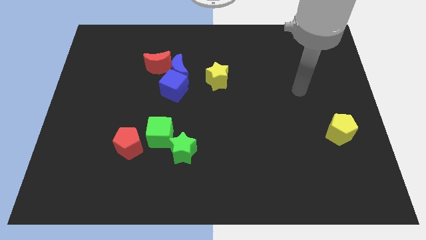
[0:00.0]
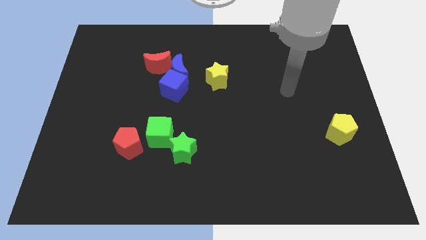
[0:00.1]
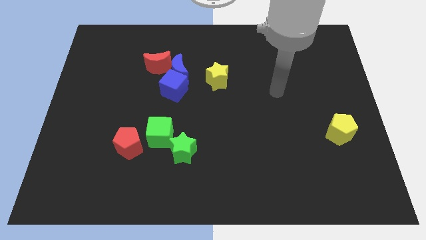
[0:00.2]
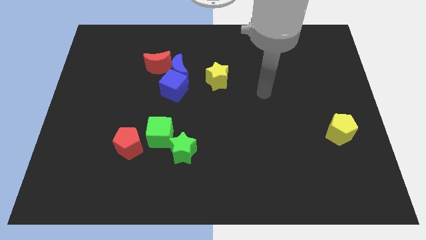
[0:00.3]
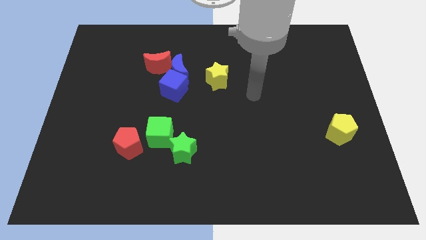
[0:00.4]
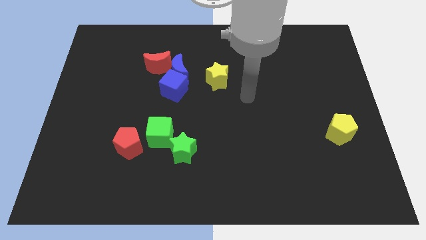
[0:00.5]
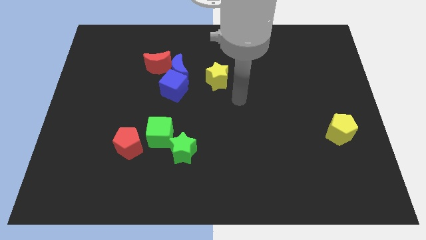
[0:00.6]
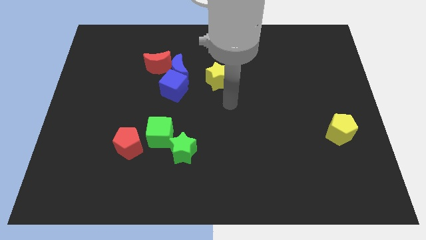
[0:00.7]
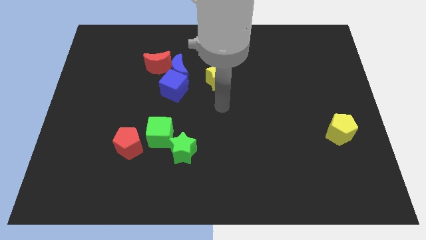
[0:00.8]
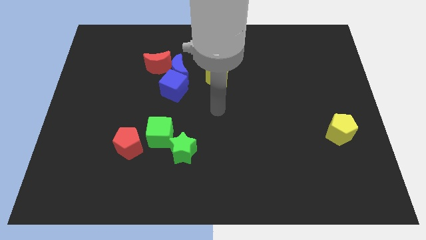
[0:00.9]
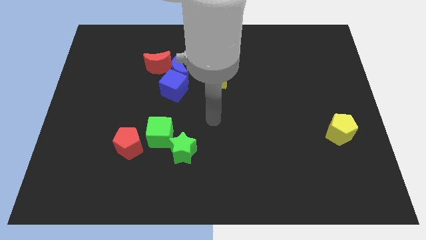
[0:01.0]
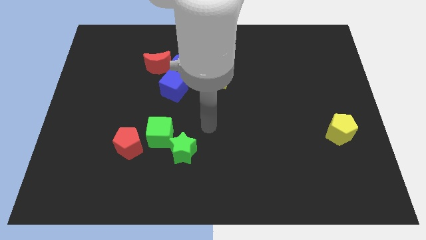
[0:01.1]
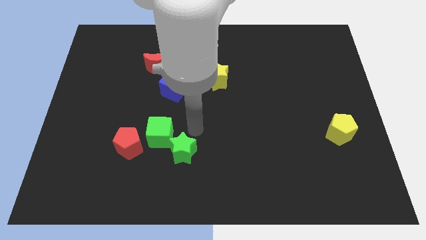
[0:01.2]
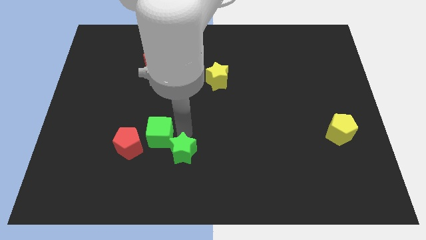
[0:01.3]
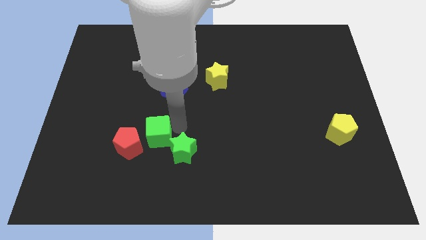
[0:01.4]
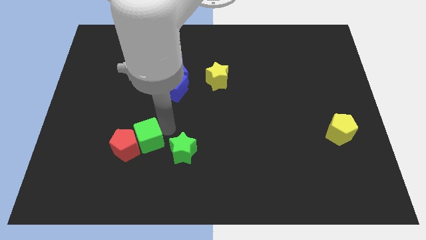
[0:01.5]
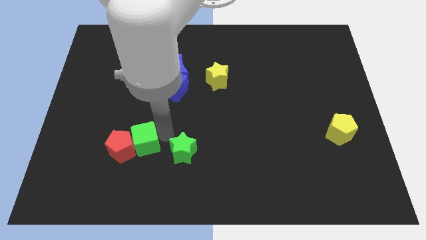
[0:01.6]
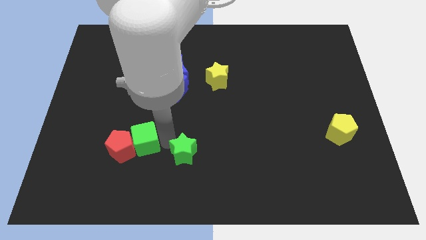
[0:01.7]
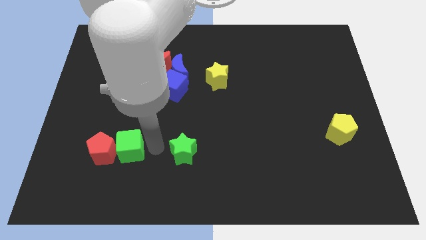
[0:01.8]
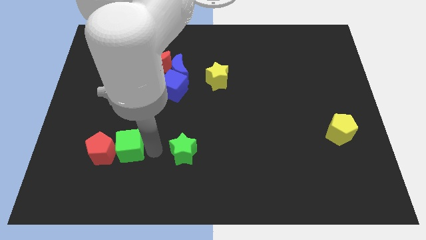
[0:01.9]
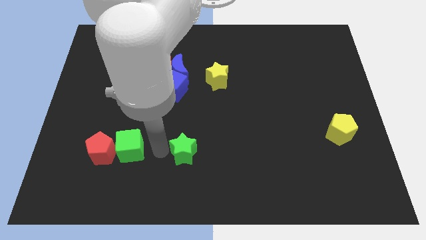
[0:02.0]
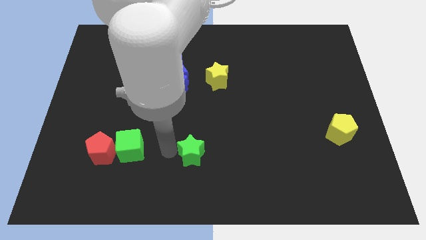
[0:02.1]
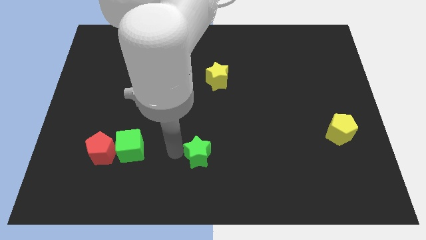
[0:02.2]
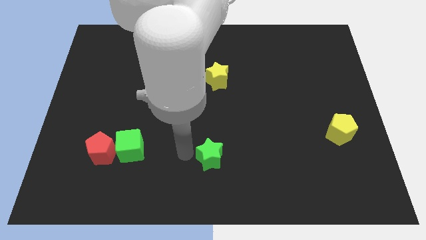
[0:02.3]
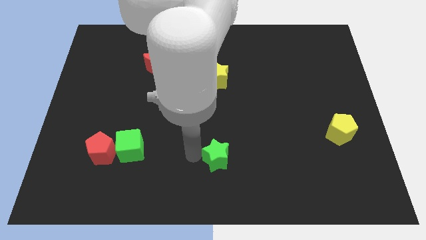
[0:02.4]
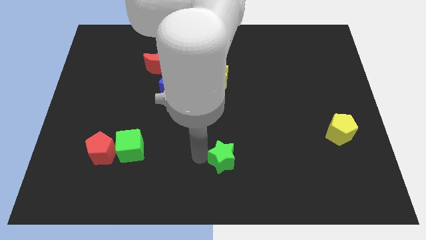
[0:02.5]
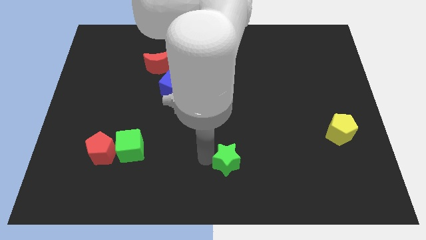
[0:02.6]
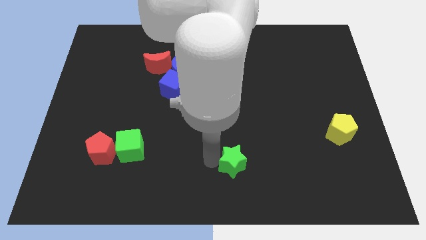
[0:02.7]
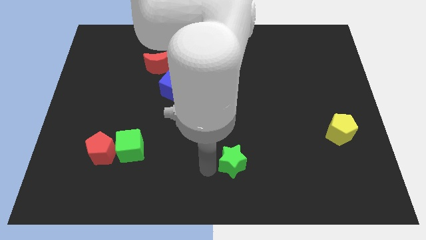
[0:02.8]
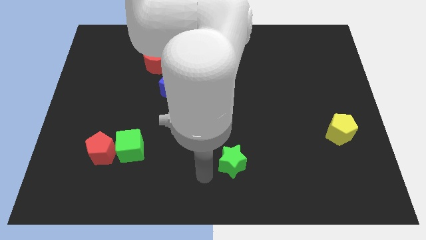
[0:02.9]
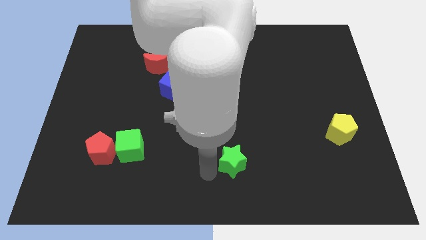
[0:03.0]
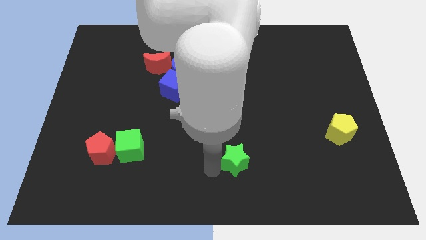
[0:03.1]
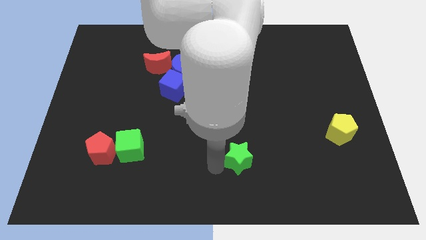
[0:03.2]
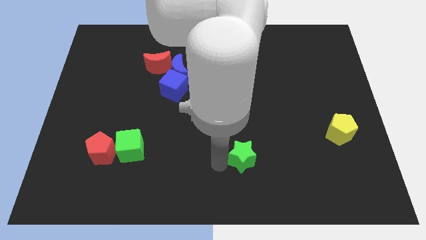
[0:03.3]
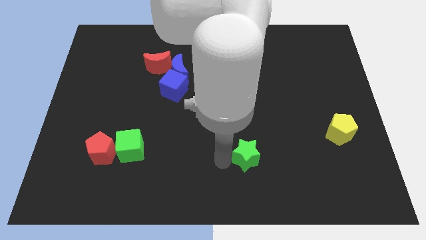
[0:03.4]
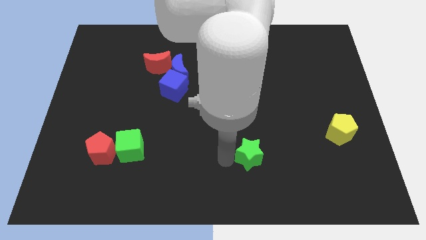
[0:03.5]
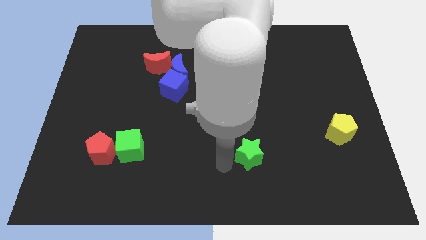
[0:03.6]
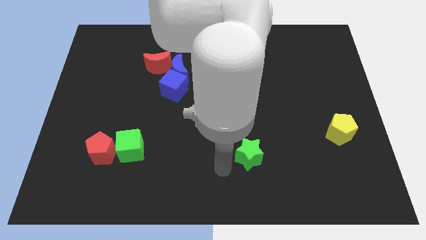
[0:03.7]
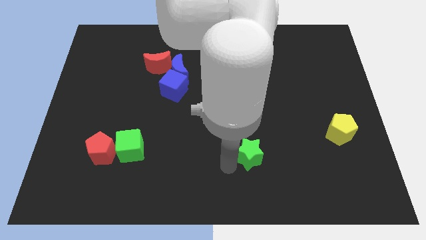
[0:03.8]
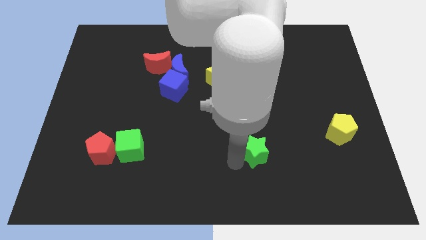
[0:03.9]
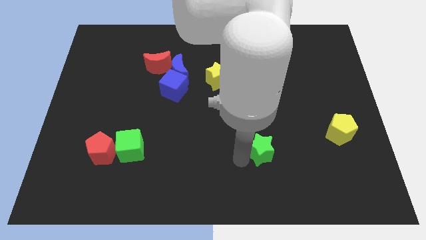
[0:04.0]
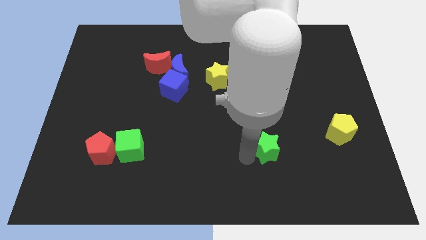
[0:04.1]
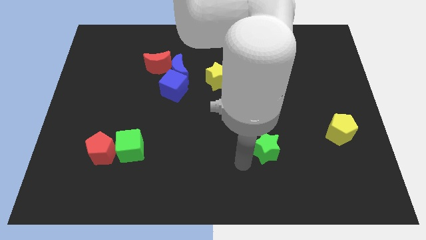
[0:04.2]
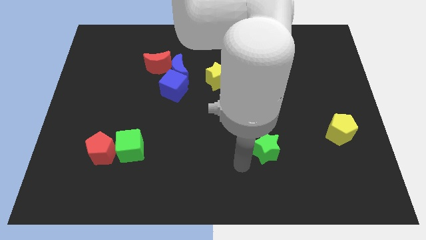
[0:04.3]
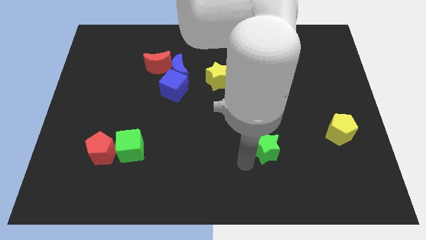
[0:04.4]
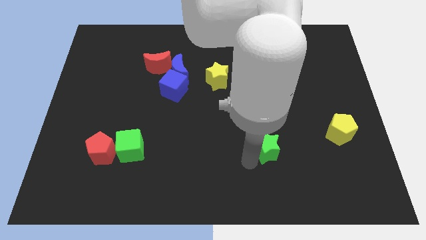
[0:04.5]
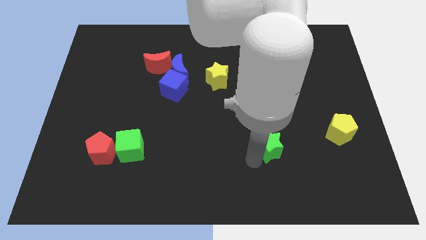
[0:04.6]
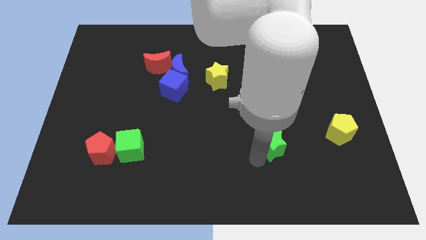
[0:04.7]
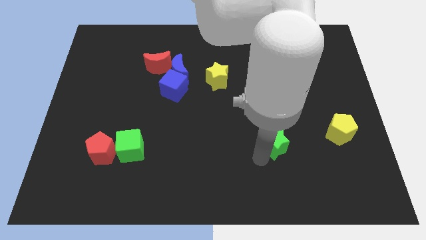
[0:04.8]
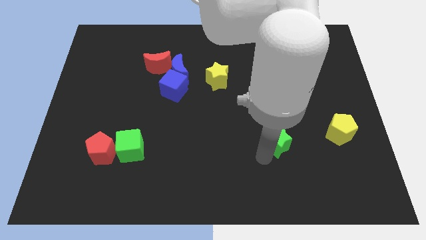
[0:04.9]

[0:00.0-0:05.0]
slide the green star just left of the yellow pentagon

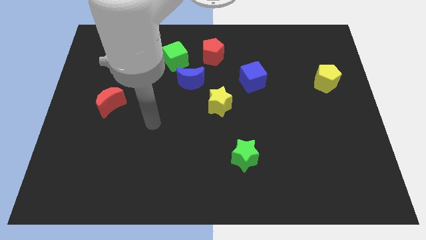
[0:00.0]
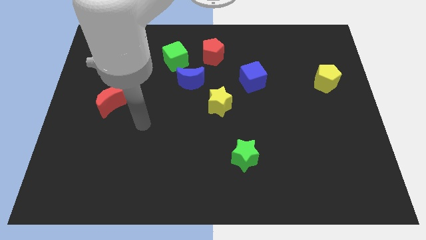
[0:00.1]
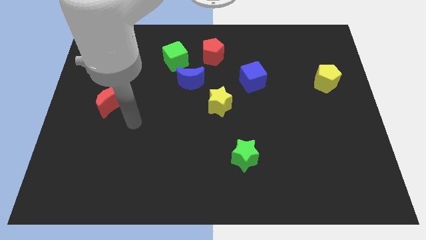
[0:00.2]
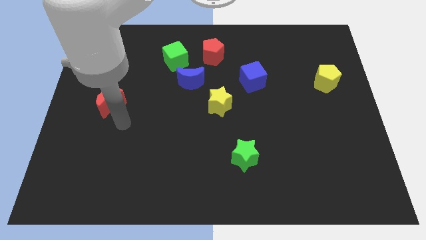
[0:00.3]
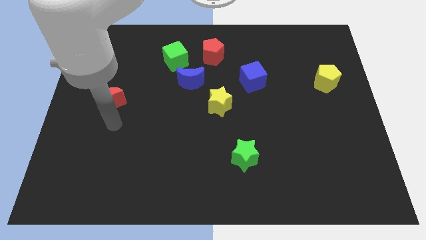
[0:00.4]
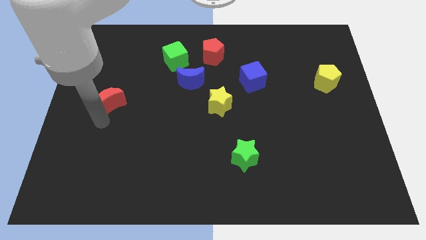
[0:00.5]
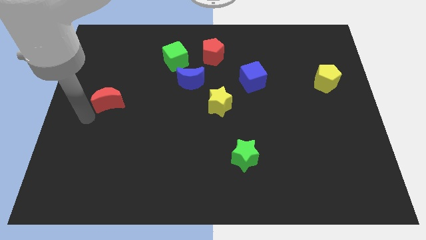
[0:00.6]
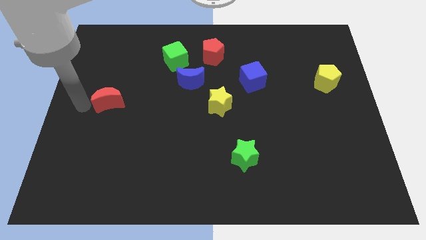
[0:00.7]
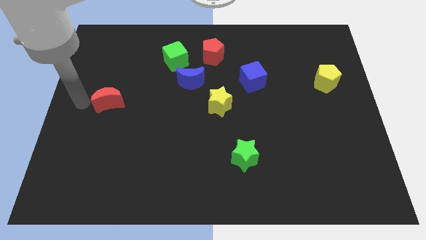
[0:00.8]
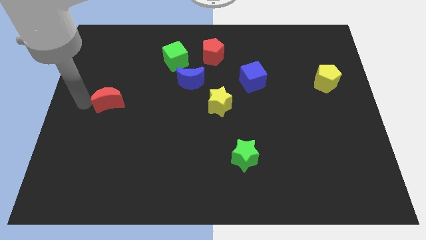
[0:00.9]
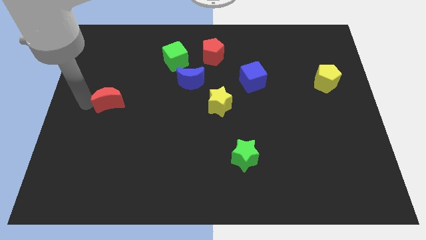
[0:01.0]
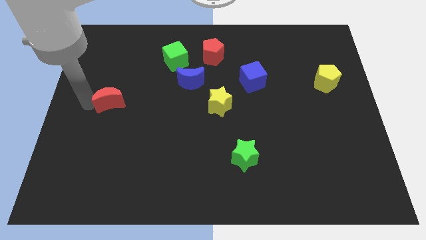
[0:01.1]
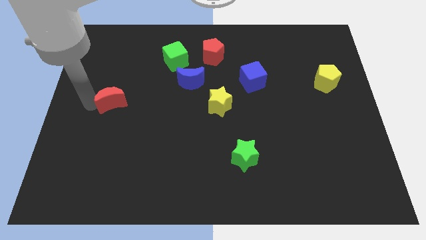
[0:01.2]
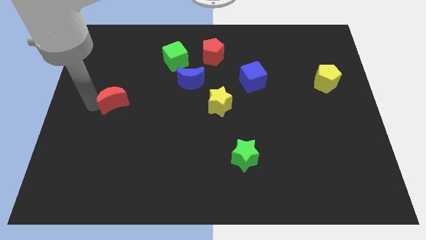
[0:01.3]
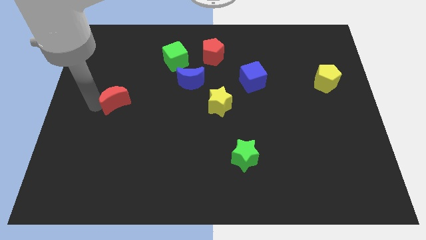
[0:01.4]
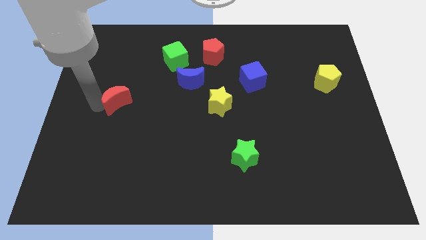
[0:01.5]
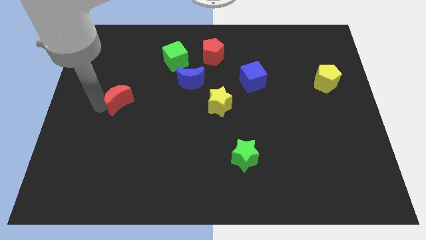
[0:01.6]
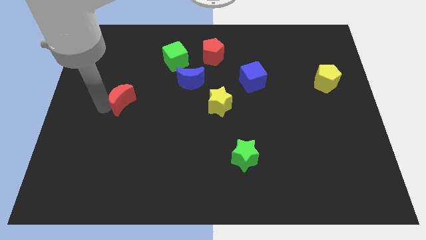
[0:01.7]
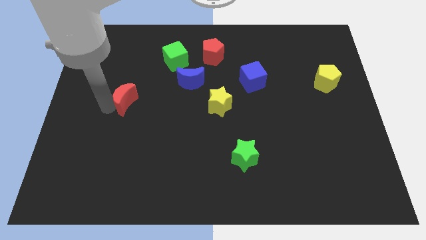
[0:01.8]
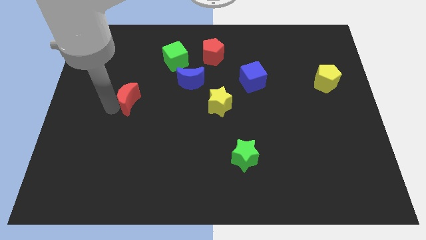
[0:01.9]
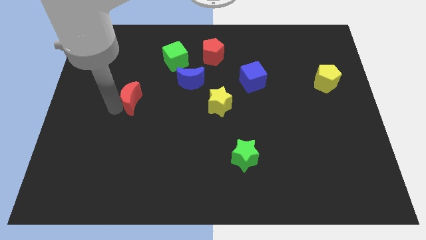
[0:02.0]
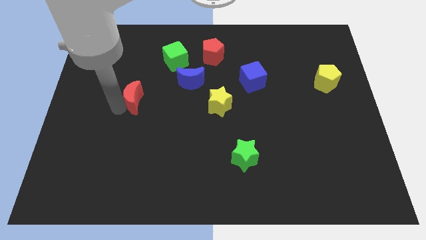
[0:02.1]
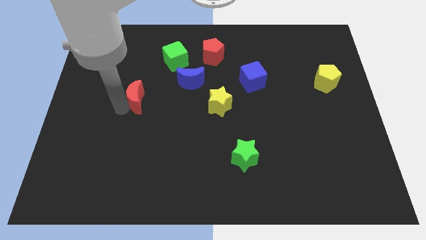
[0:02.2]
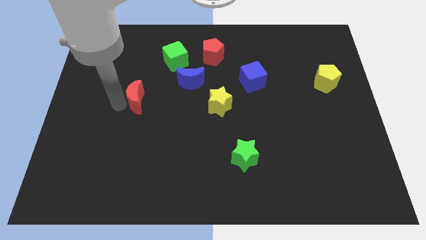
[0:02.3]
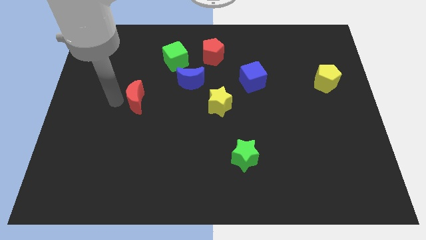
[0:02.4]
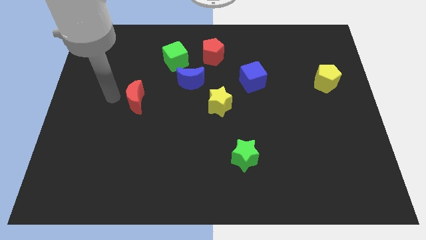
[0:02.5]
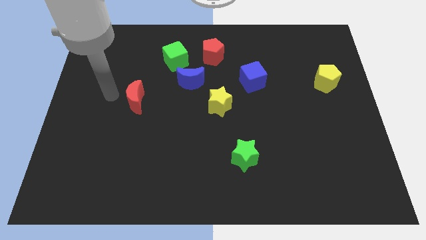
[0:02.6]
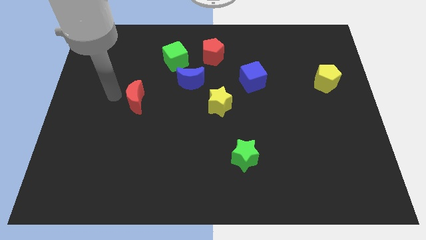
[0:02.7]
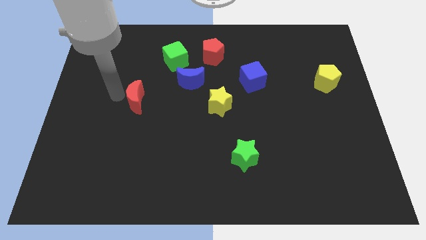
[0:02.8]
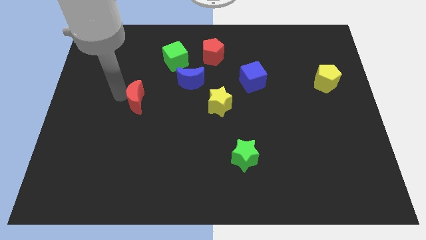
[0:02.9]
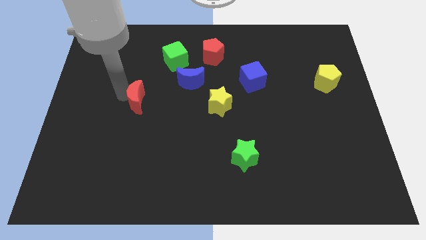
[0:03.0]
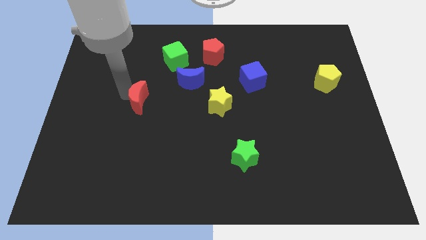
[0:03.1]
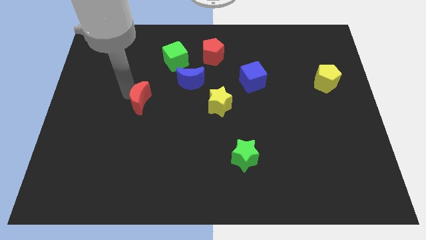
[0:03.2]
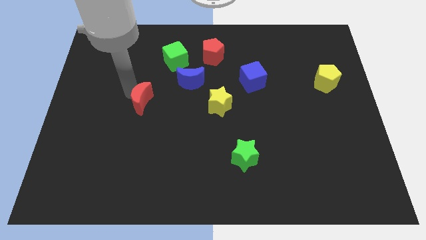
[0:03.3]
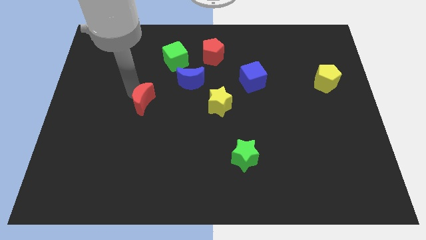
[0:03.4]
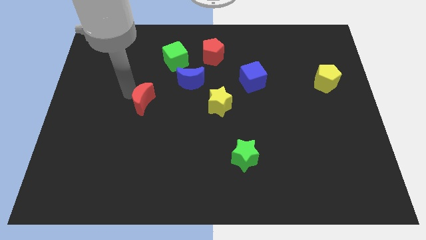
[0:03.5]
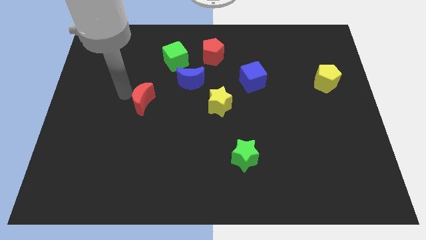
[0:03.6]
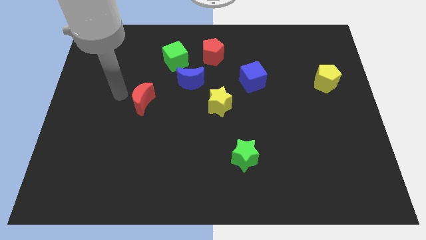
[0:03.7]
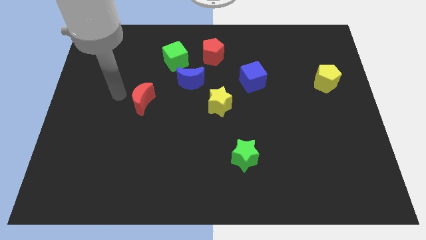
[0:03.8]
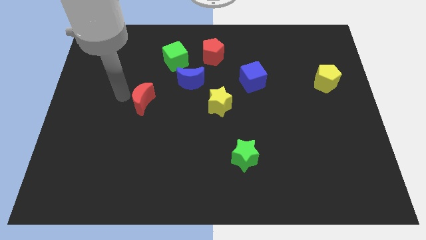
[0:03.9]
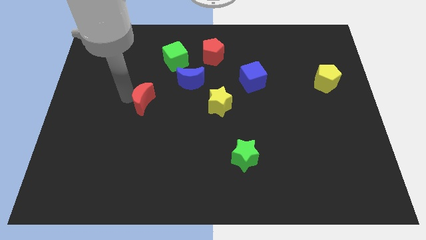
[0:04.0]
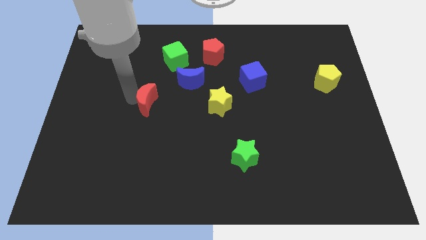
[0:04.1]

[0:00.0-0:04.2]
put the red moon diagonally down and to the left of the blue moon
